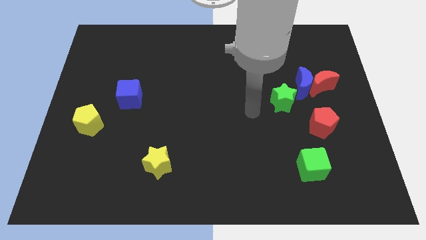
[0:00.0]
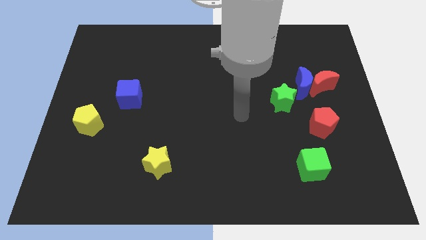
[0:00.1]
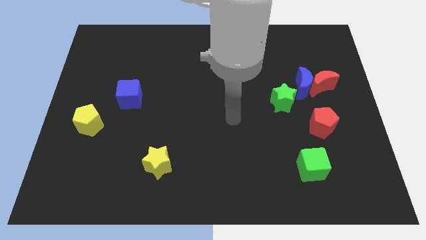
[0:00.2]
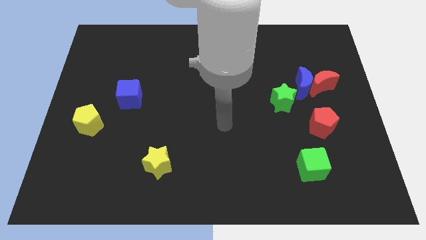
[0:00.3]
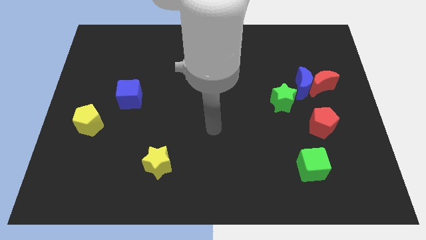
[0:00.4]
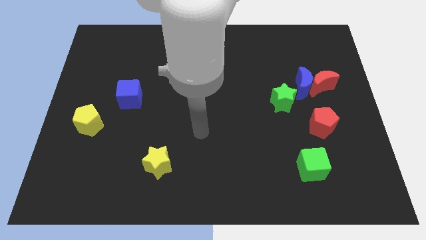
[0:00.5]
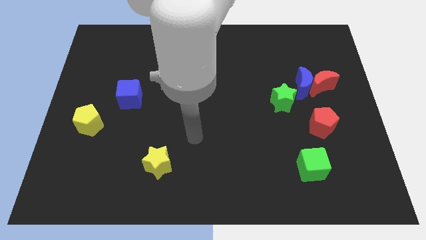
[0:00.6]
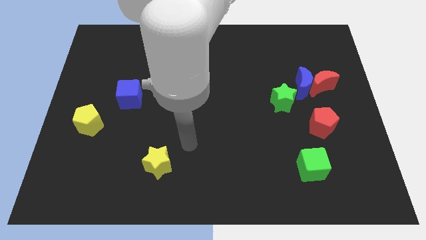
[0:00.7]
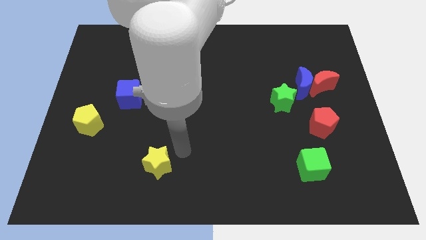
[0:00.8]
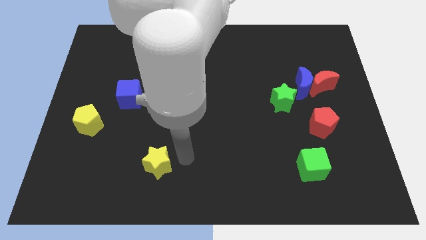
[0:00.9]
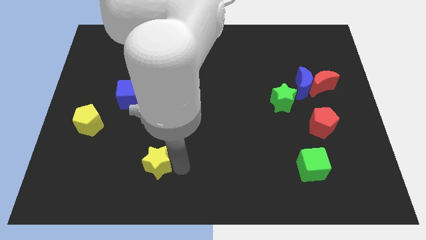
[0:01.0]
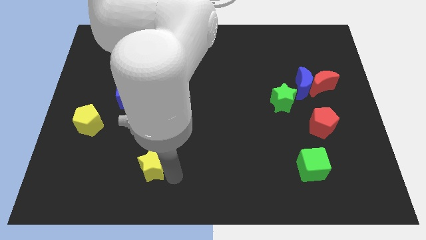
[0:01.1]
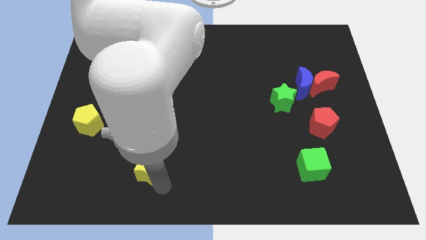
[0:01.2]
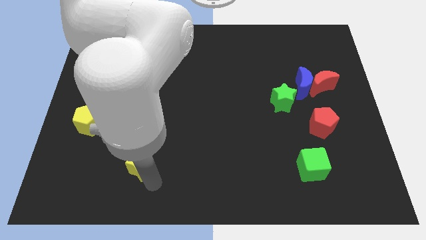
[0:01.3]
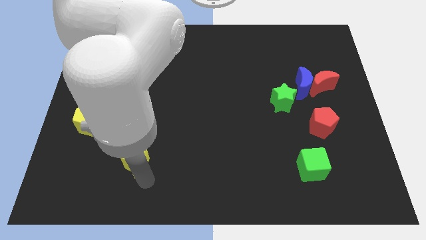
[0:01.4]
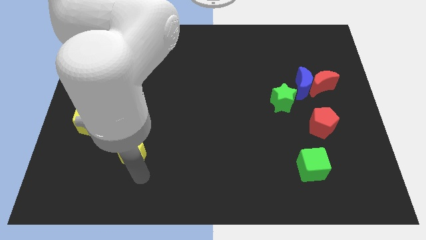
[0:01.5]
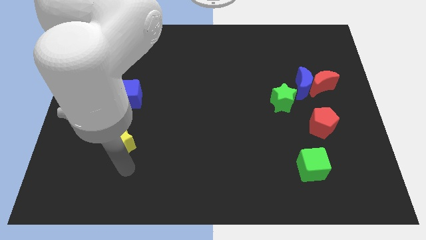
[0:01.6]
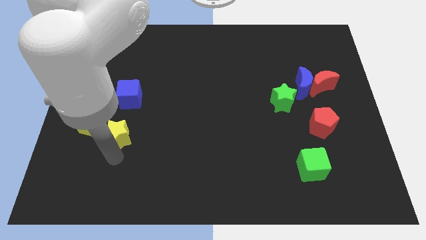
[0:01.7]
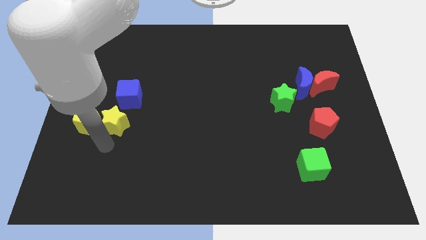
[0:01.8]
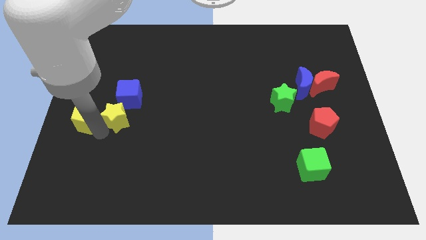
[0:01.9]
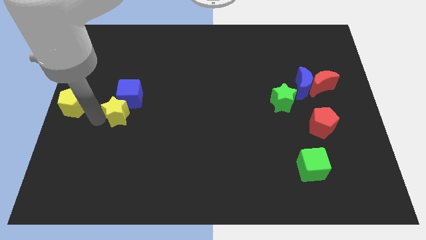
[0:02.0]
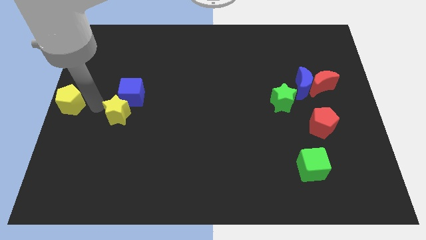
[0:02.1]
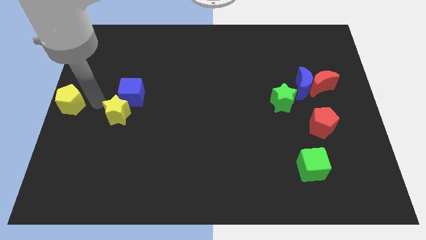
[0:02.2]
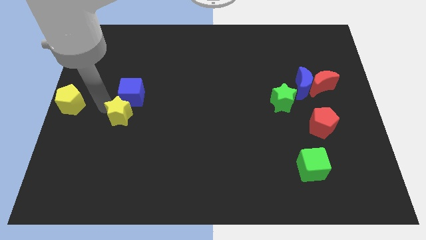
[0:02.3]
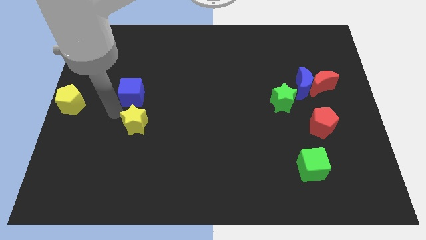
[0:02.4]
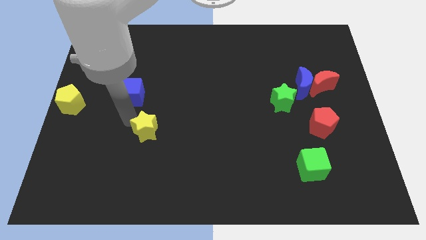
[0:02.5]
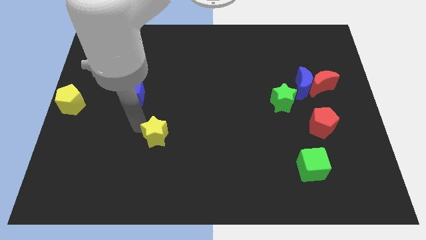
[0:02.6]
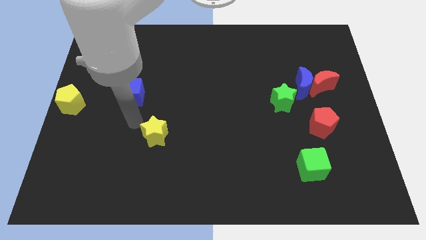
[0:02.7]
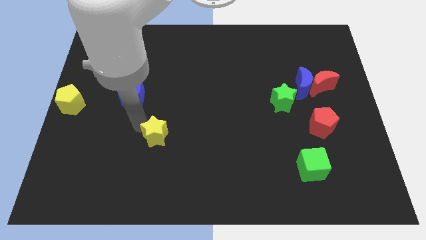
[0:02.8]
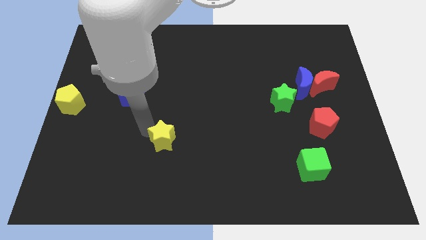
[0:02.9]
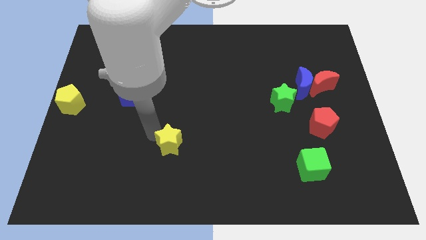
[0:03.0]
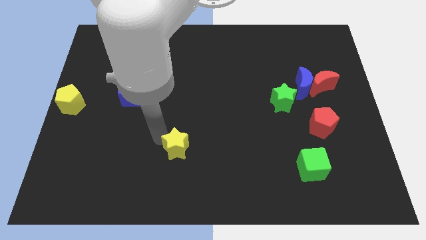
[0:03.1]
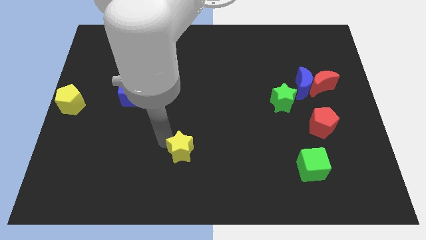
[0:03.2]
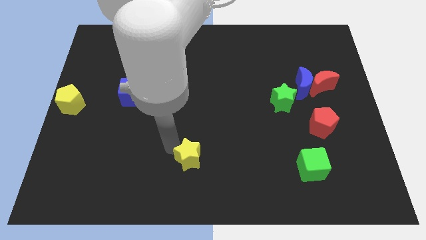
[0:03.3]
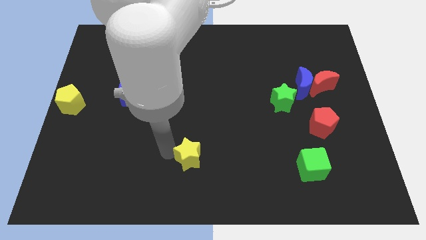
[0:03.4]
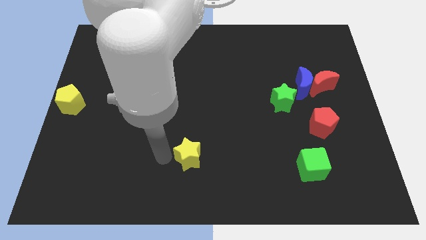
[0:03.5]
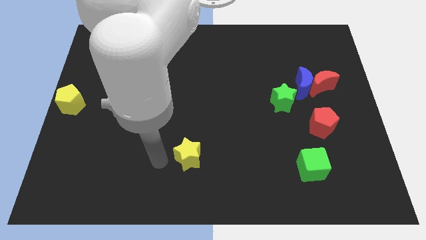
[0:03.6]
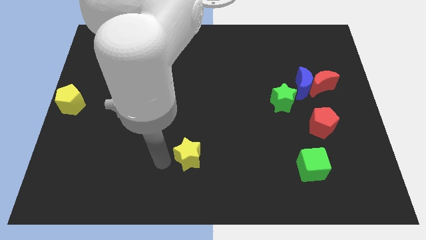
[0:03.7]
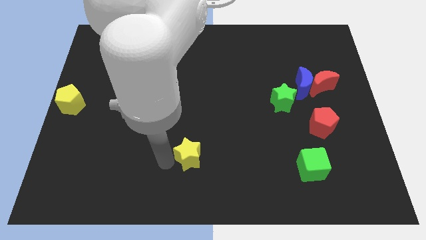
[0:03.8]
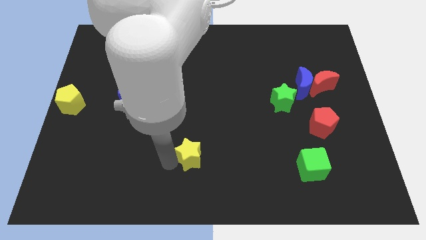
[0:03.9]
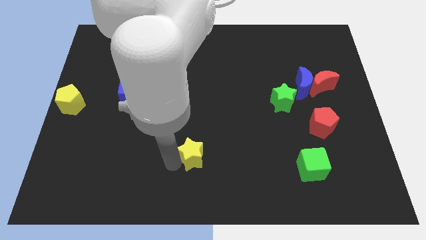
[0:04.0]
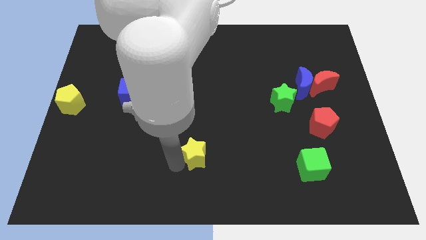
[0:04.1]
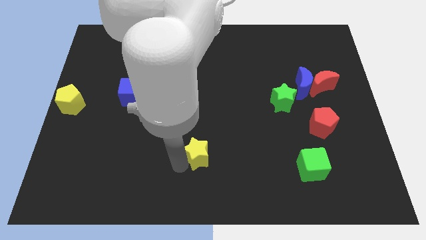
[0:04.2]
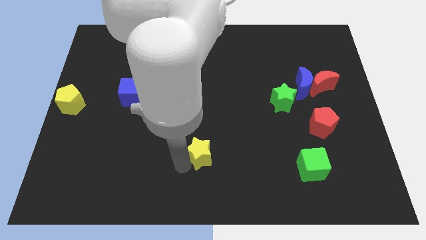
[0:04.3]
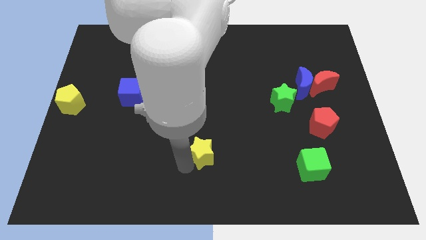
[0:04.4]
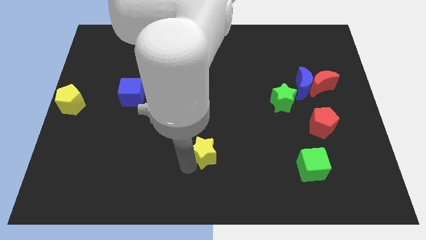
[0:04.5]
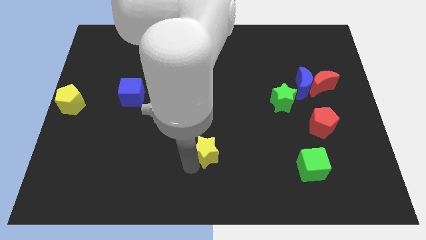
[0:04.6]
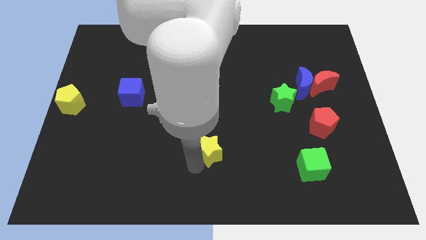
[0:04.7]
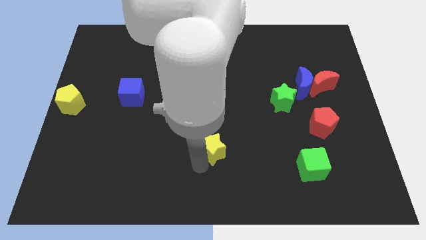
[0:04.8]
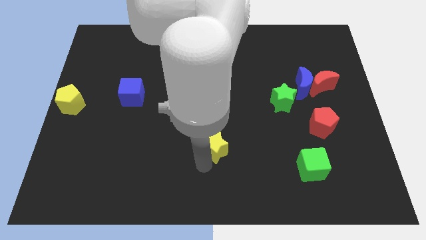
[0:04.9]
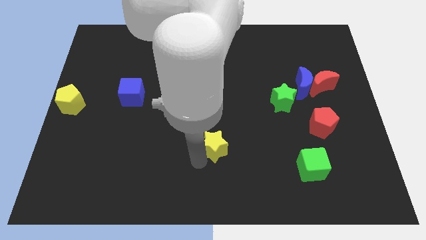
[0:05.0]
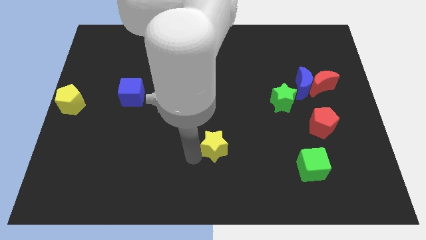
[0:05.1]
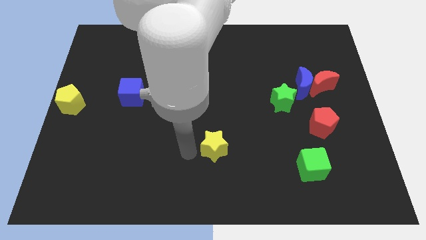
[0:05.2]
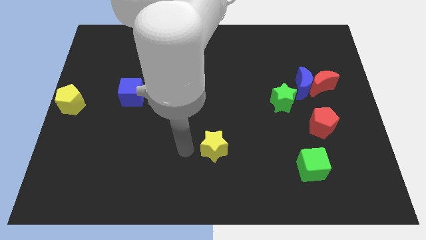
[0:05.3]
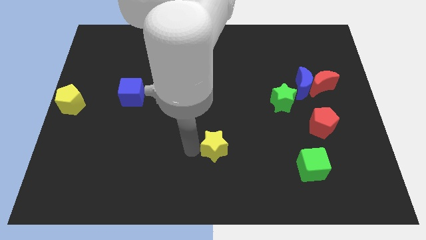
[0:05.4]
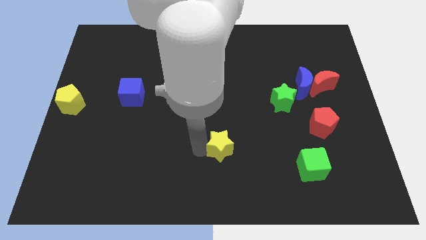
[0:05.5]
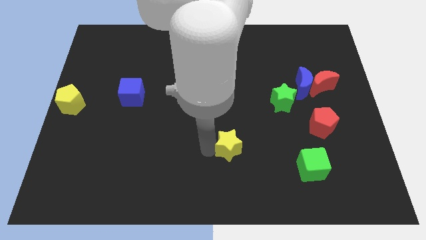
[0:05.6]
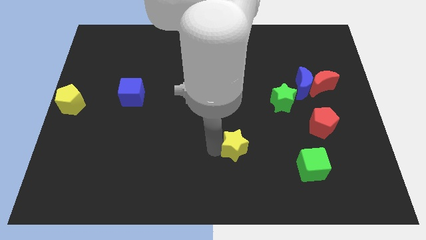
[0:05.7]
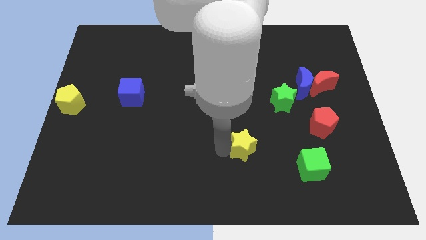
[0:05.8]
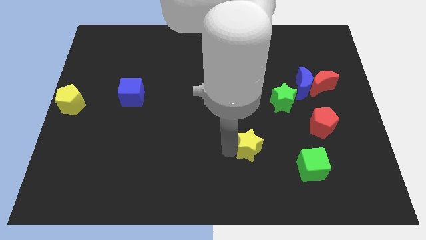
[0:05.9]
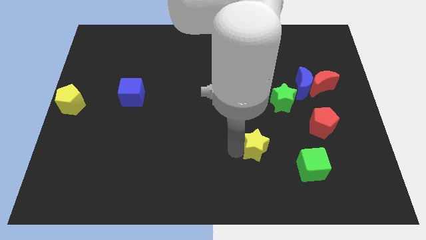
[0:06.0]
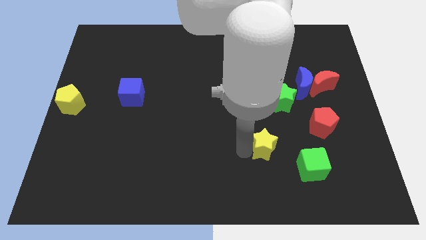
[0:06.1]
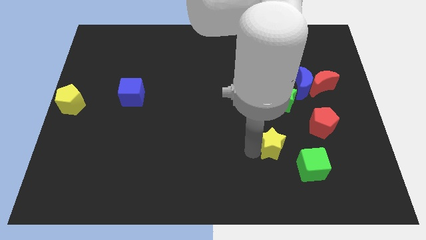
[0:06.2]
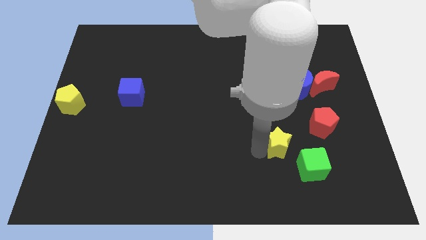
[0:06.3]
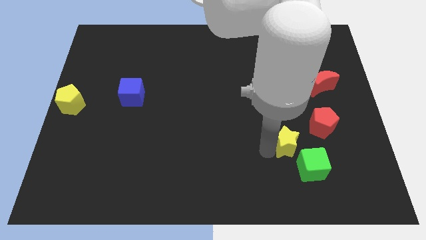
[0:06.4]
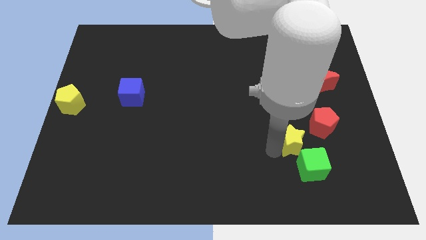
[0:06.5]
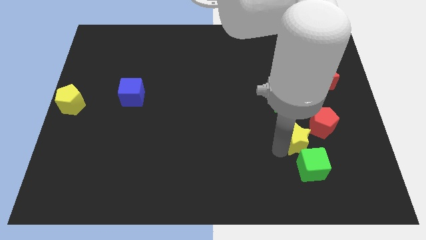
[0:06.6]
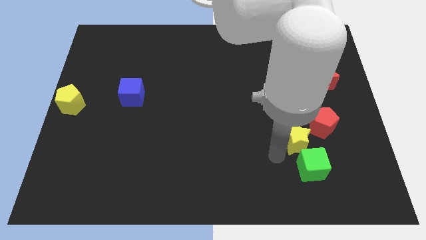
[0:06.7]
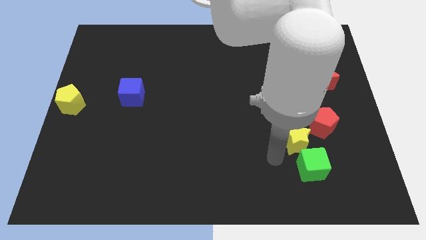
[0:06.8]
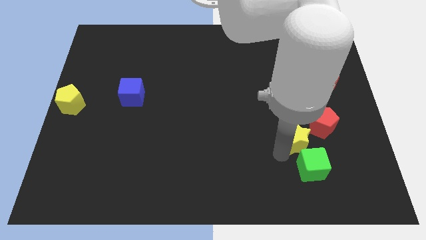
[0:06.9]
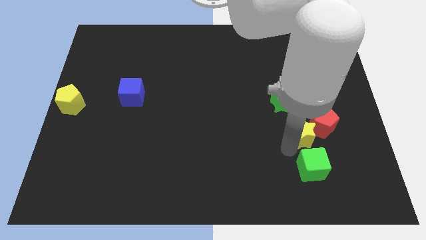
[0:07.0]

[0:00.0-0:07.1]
push the yellow star close to the red pentagon

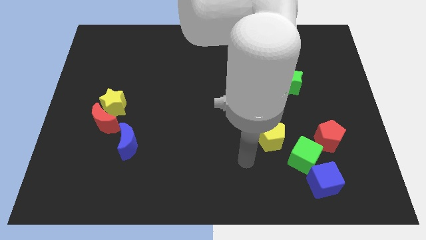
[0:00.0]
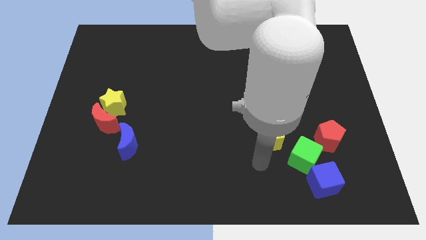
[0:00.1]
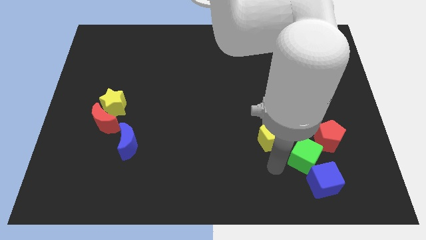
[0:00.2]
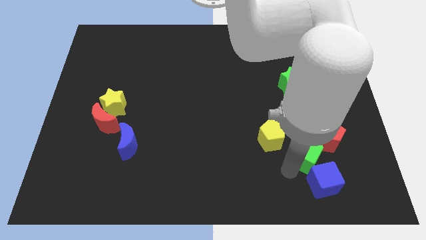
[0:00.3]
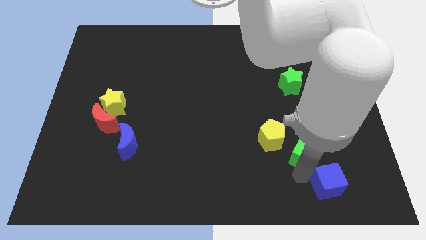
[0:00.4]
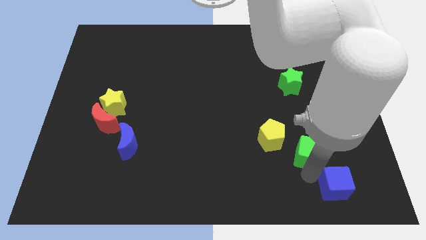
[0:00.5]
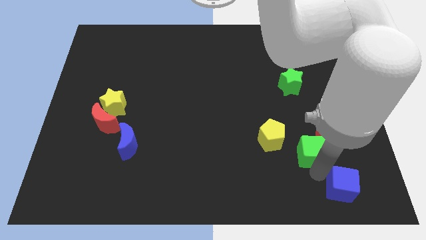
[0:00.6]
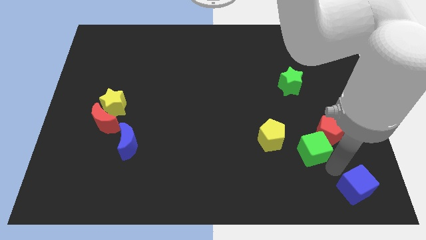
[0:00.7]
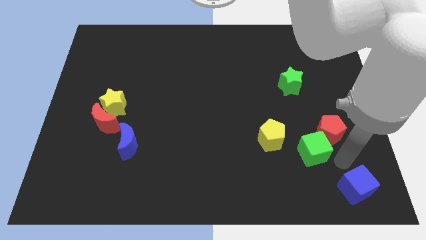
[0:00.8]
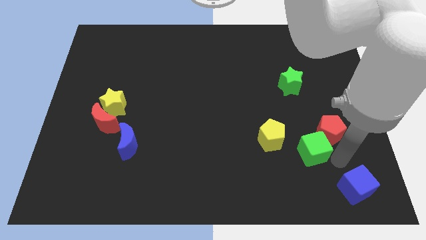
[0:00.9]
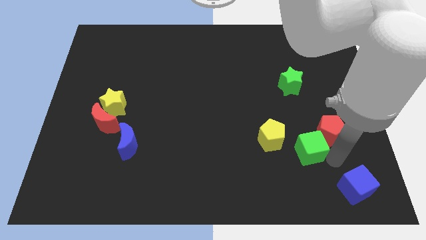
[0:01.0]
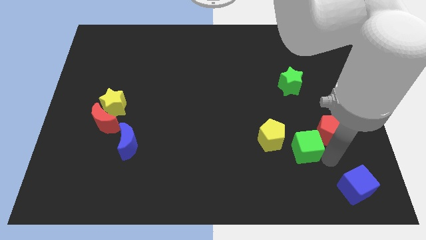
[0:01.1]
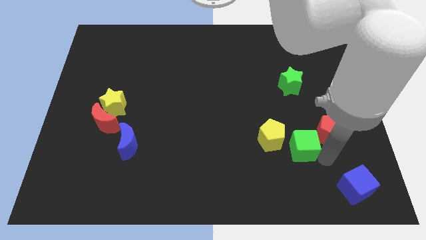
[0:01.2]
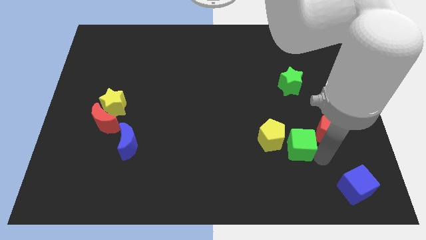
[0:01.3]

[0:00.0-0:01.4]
push the green cube next to the yellow pentagon
